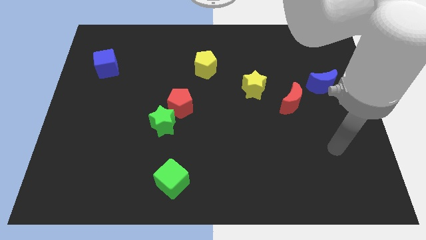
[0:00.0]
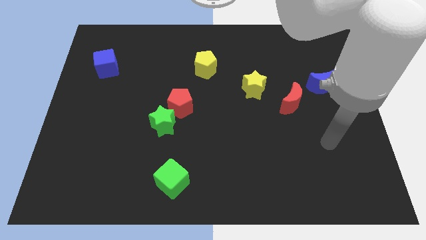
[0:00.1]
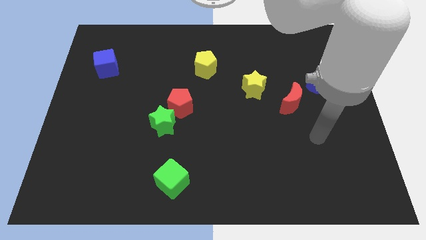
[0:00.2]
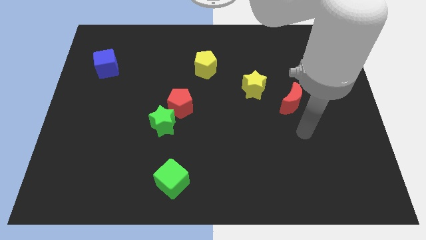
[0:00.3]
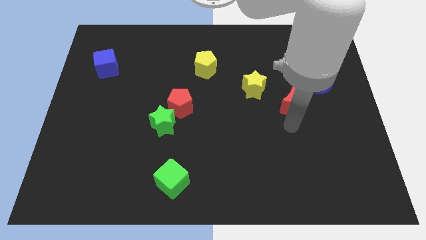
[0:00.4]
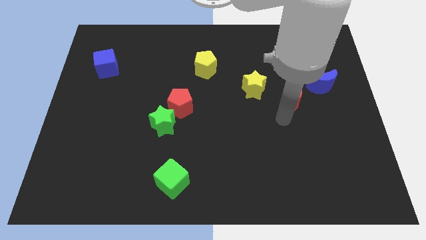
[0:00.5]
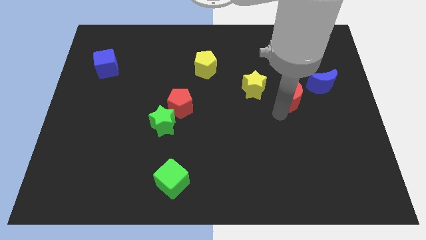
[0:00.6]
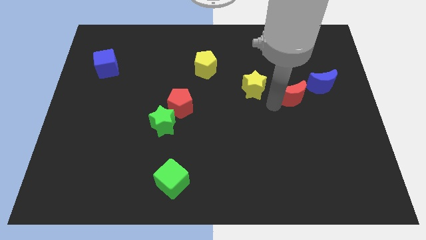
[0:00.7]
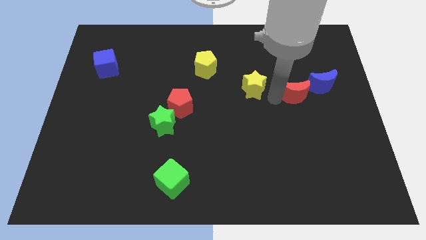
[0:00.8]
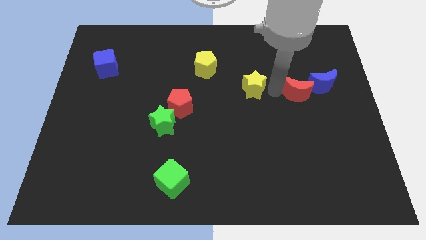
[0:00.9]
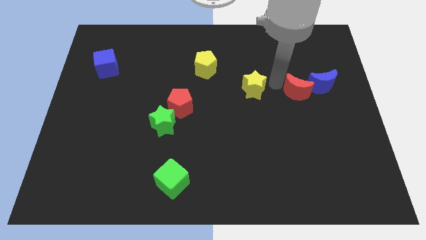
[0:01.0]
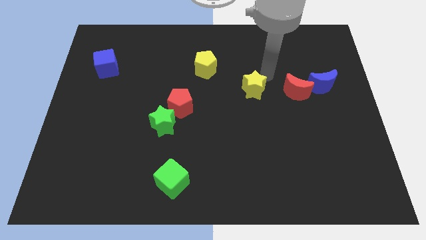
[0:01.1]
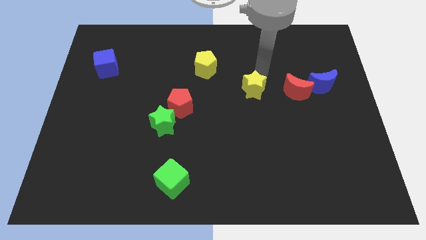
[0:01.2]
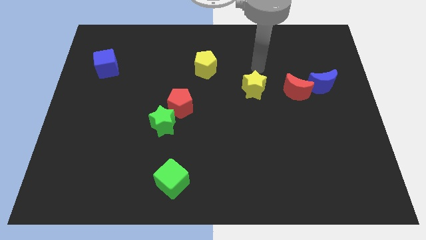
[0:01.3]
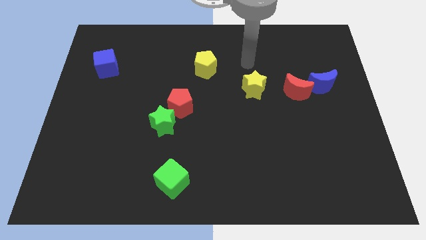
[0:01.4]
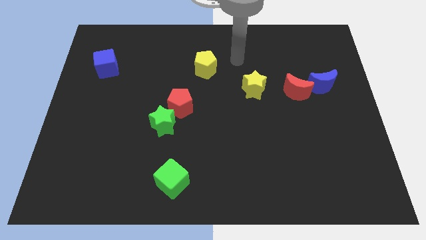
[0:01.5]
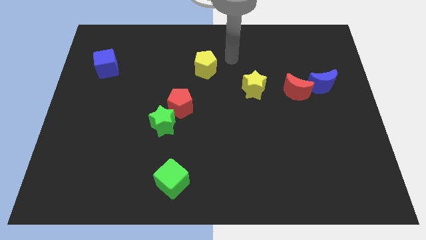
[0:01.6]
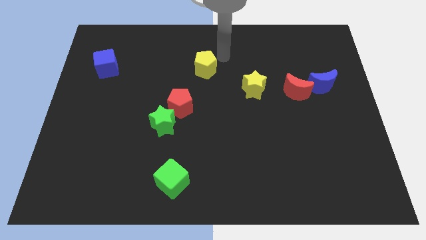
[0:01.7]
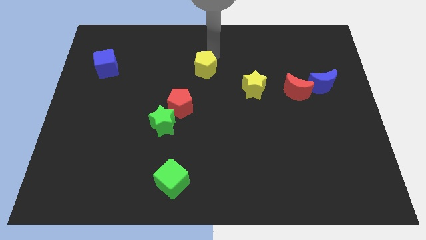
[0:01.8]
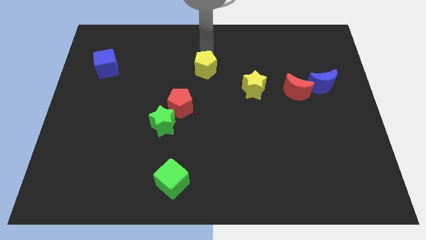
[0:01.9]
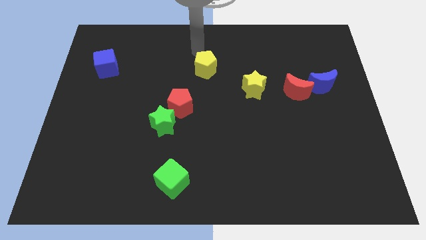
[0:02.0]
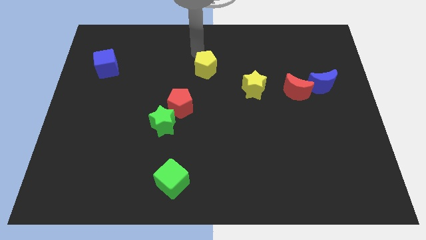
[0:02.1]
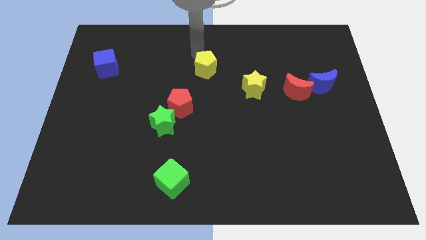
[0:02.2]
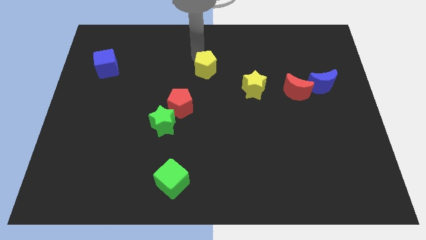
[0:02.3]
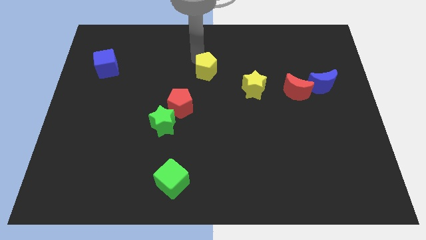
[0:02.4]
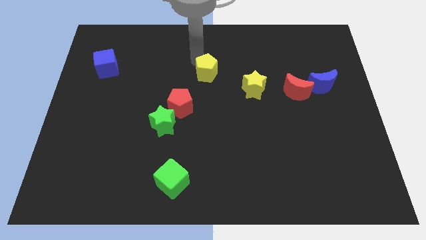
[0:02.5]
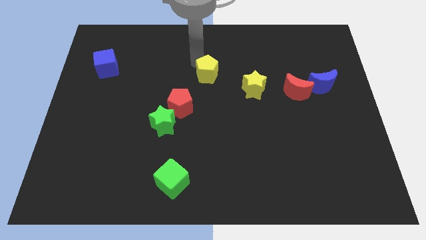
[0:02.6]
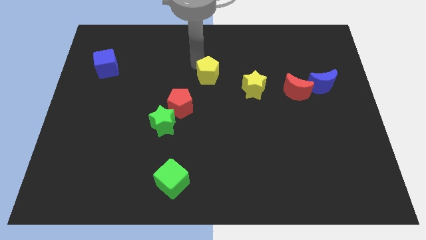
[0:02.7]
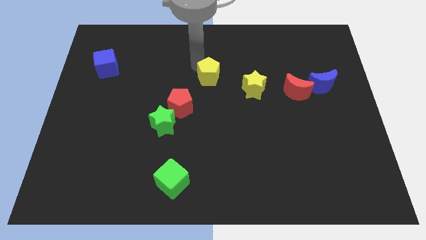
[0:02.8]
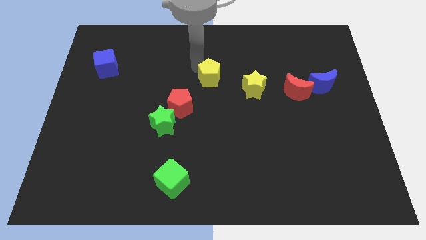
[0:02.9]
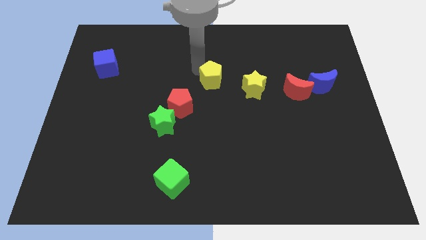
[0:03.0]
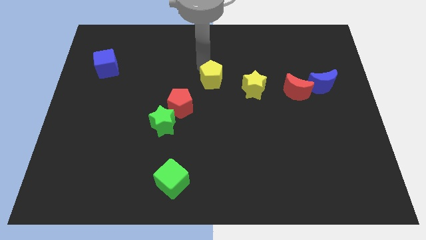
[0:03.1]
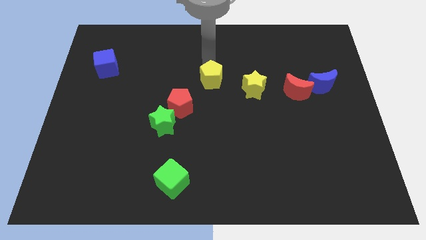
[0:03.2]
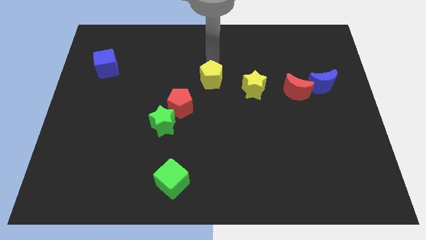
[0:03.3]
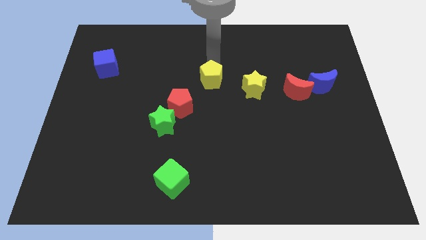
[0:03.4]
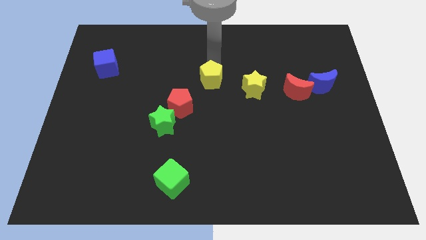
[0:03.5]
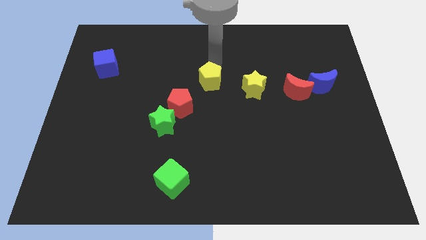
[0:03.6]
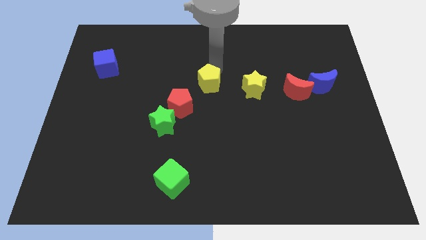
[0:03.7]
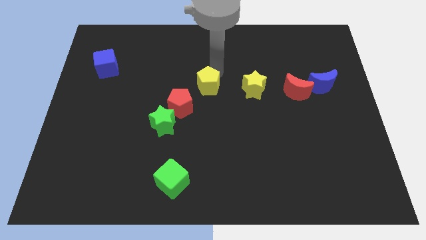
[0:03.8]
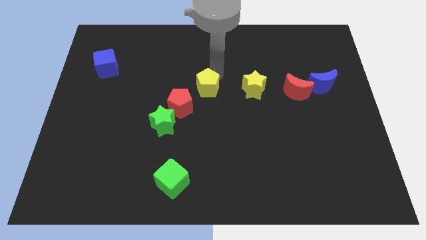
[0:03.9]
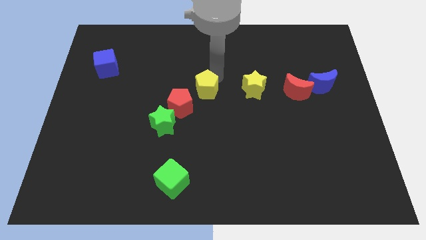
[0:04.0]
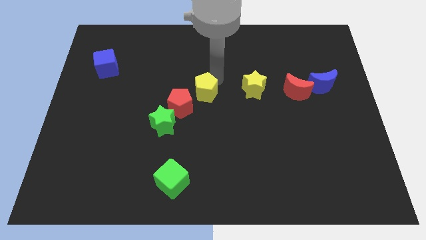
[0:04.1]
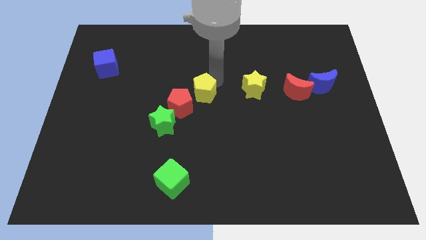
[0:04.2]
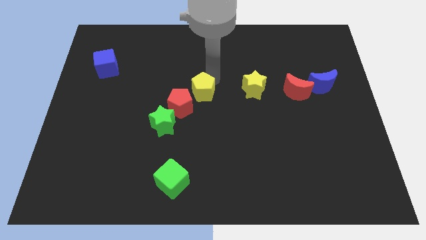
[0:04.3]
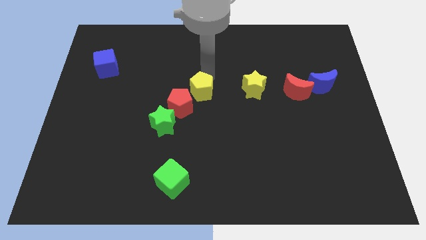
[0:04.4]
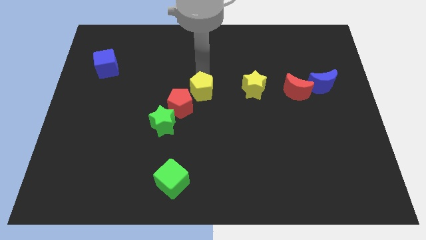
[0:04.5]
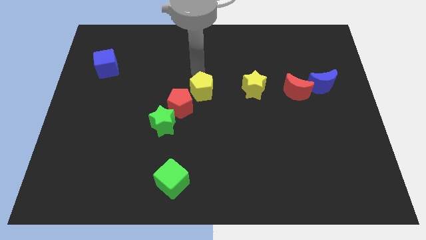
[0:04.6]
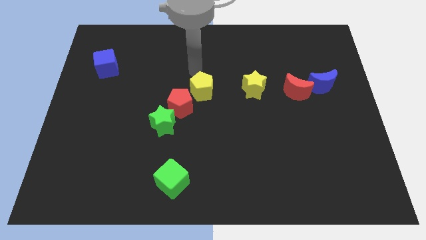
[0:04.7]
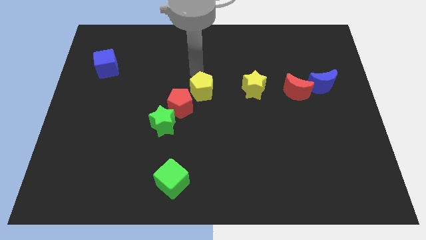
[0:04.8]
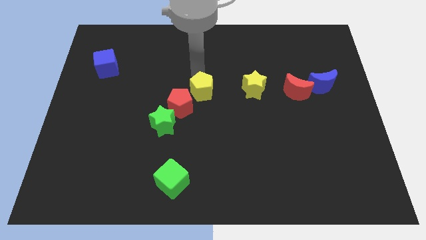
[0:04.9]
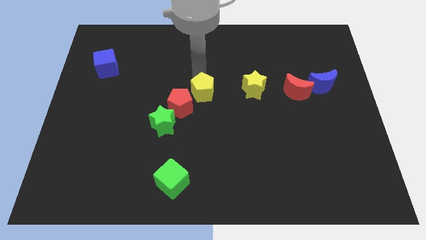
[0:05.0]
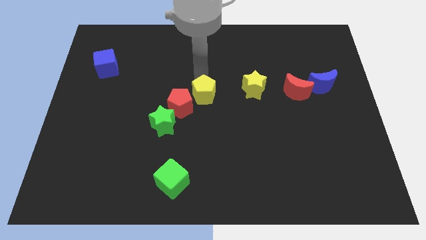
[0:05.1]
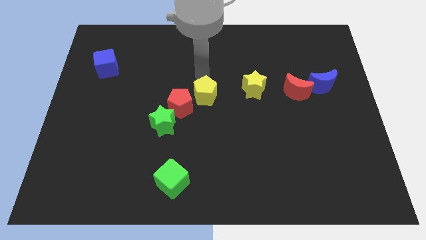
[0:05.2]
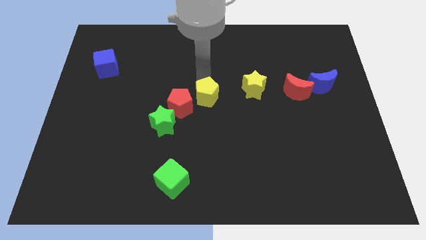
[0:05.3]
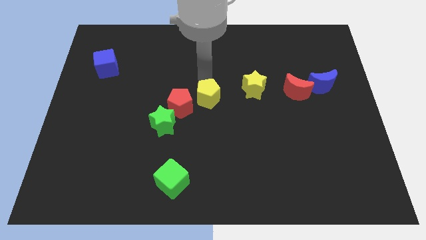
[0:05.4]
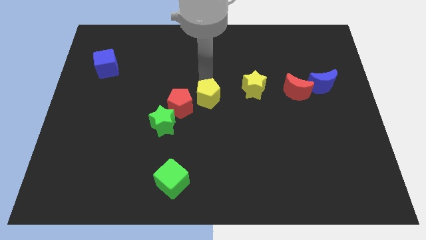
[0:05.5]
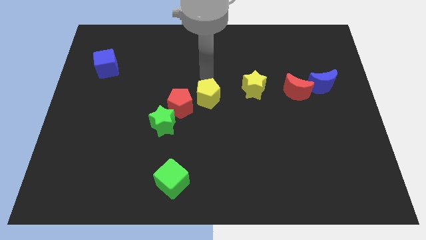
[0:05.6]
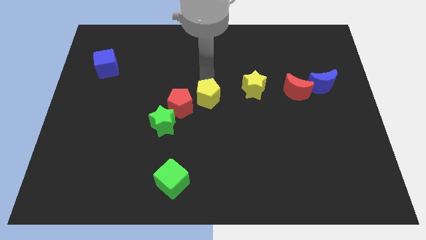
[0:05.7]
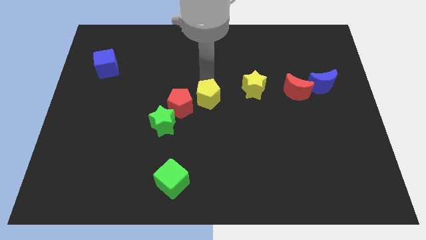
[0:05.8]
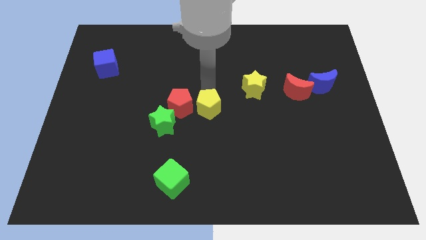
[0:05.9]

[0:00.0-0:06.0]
push the yellow pentagon diagonally down and to the right of the red pentagon

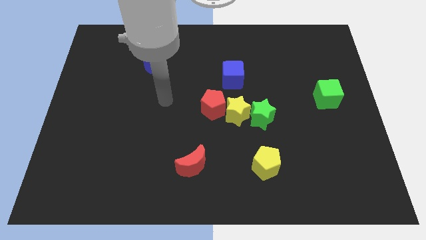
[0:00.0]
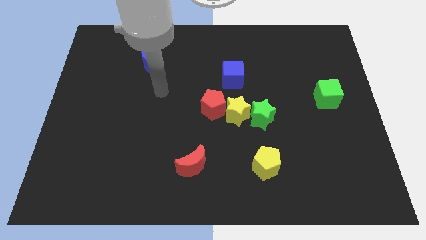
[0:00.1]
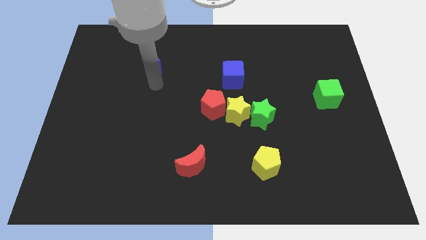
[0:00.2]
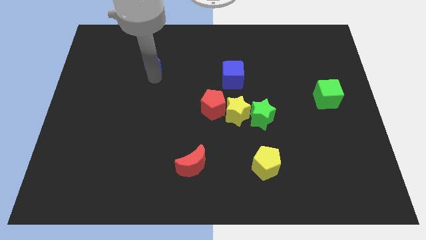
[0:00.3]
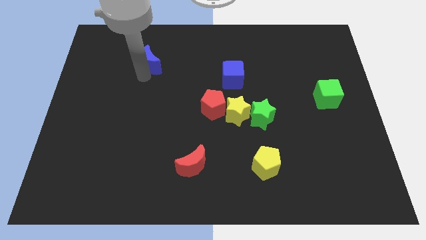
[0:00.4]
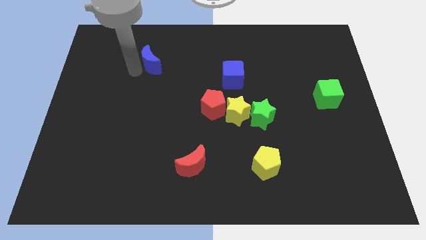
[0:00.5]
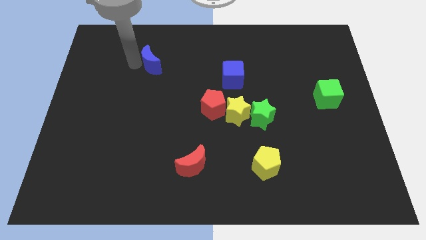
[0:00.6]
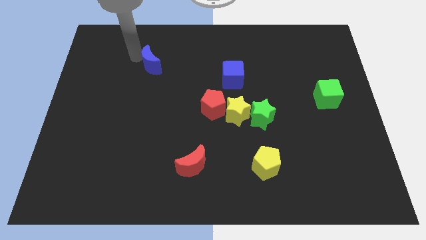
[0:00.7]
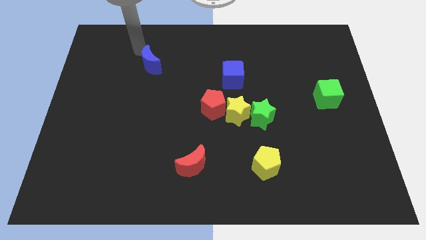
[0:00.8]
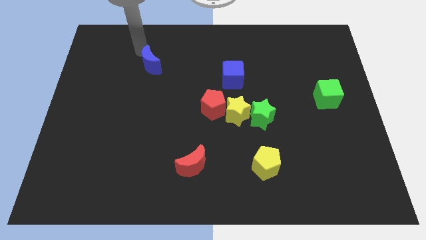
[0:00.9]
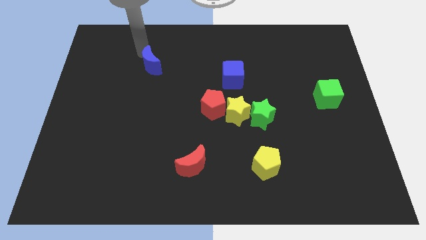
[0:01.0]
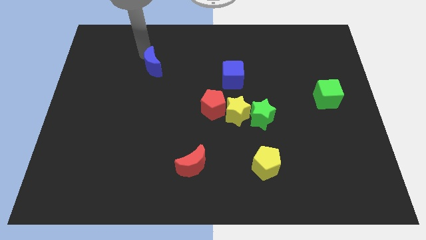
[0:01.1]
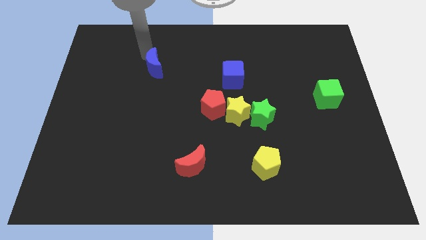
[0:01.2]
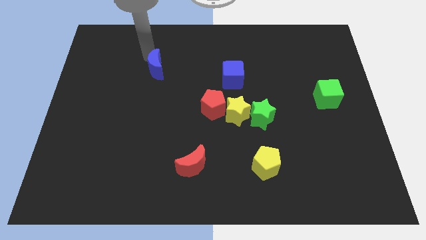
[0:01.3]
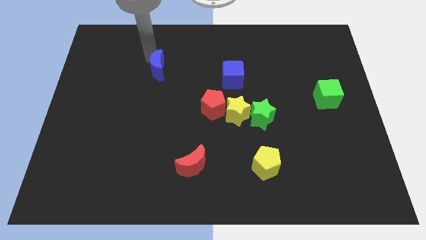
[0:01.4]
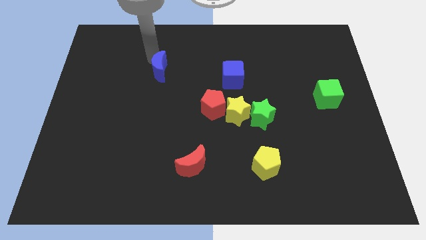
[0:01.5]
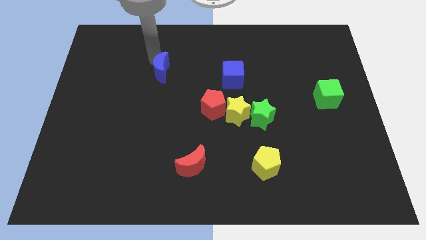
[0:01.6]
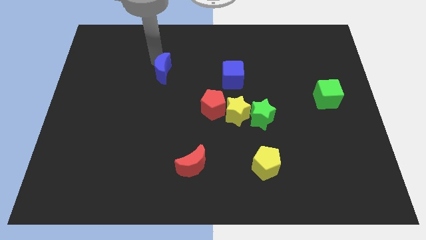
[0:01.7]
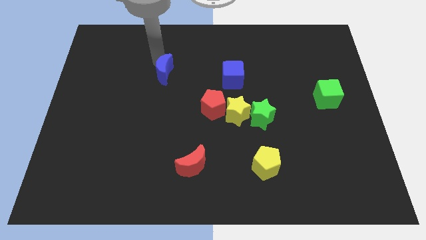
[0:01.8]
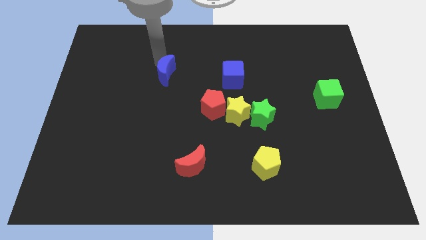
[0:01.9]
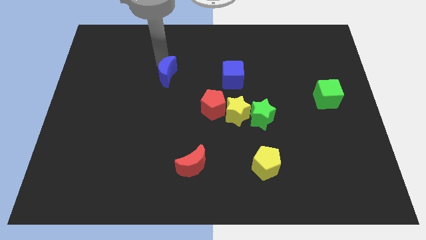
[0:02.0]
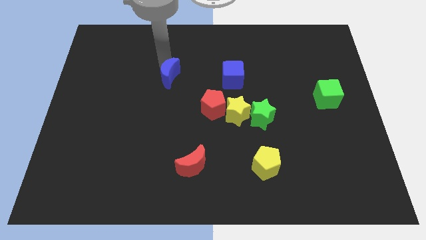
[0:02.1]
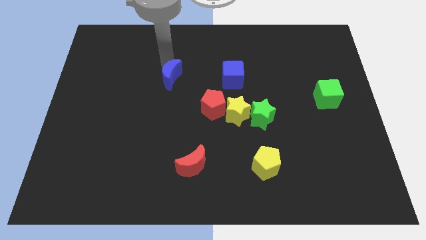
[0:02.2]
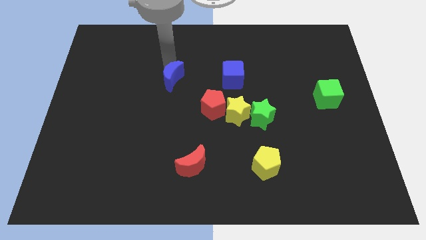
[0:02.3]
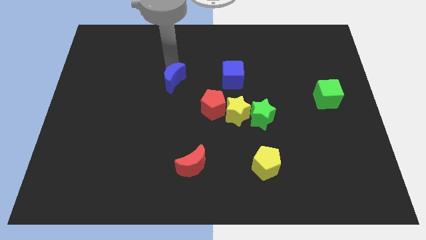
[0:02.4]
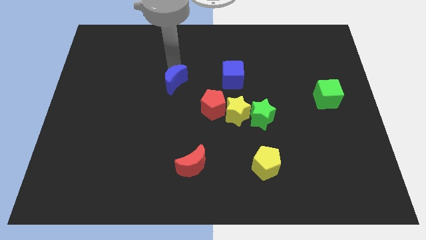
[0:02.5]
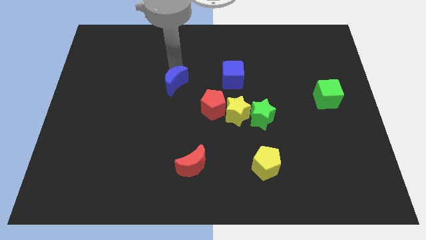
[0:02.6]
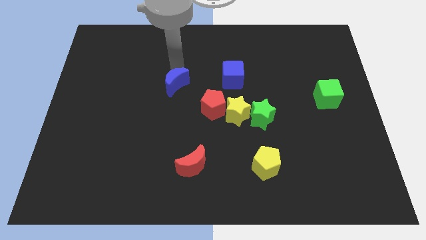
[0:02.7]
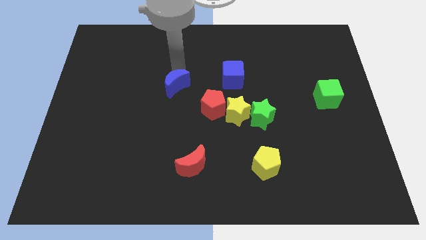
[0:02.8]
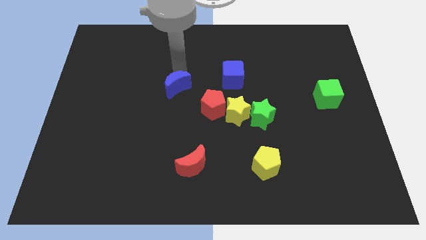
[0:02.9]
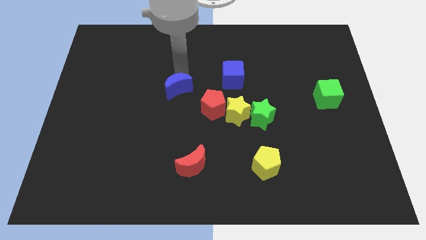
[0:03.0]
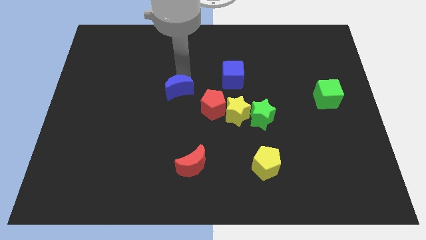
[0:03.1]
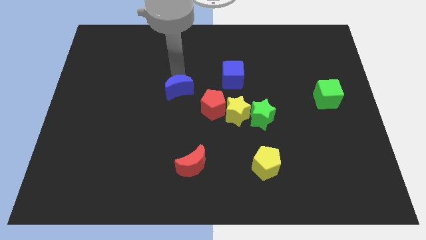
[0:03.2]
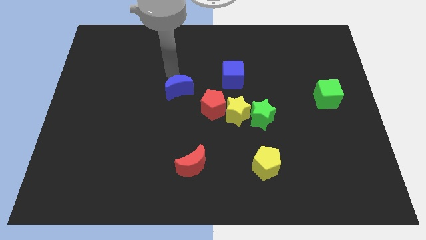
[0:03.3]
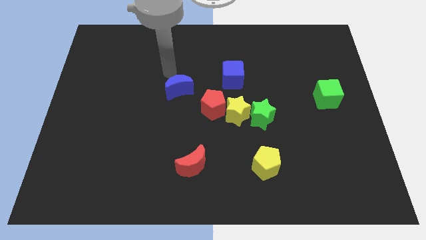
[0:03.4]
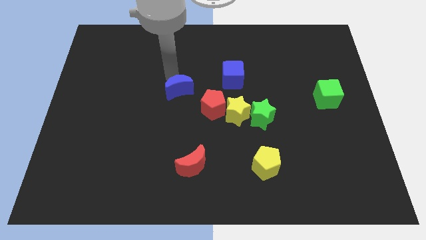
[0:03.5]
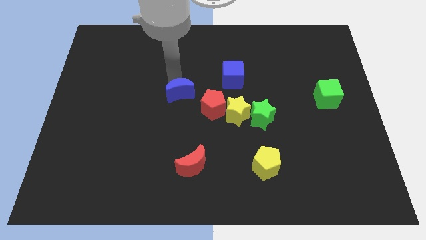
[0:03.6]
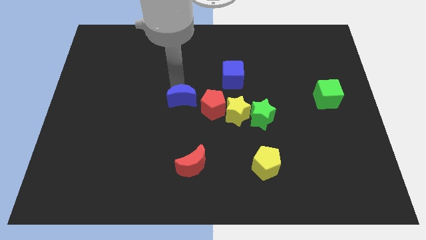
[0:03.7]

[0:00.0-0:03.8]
push the blue moon to the left side of the yellow star
